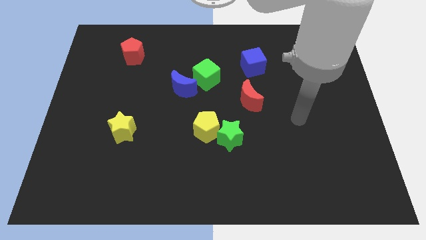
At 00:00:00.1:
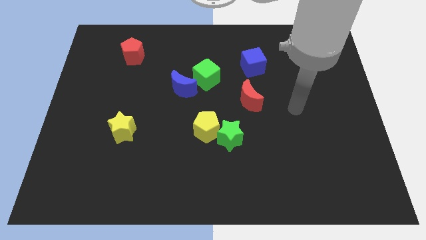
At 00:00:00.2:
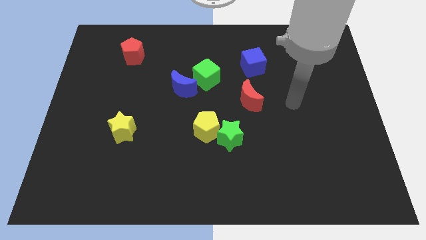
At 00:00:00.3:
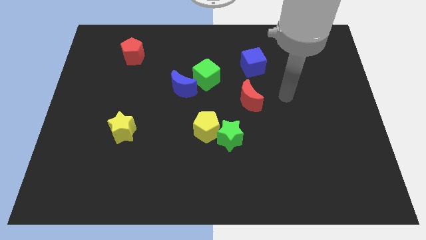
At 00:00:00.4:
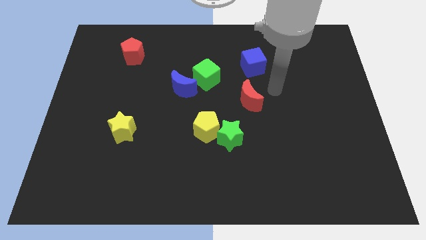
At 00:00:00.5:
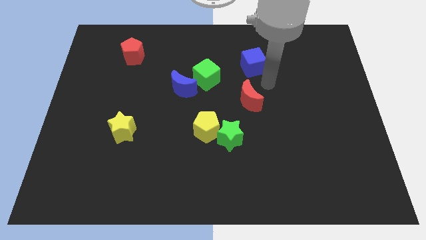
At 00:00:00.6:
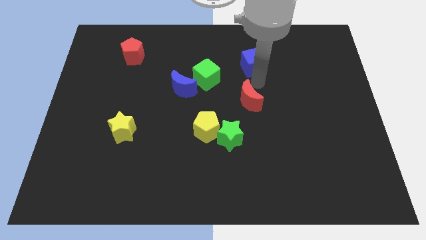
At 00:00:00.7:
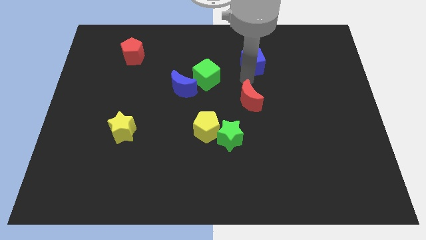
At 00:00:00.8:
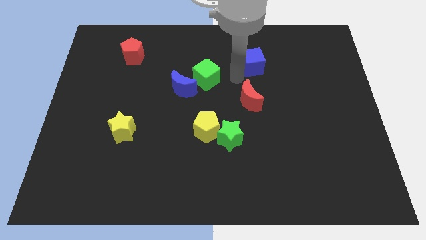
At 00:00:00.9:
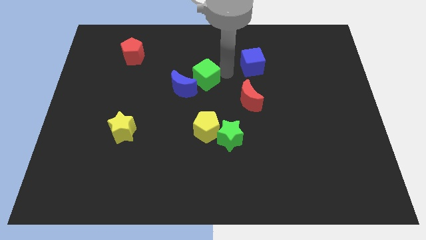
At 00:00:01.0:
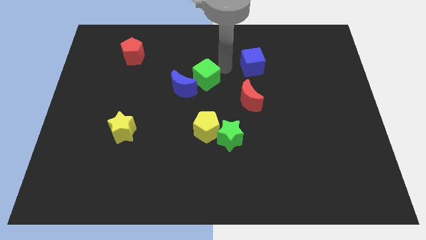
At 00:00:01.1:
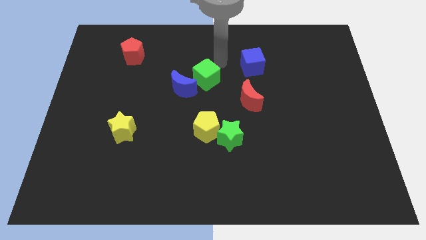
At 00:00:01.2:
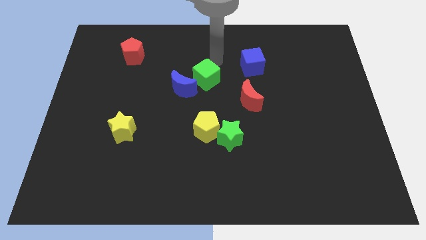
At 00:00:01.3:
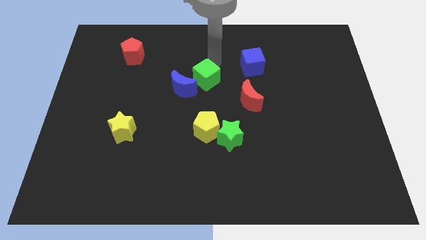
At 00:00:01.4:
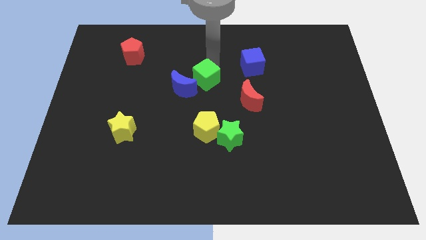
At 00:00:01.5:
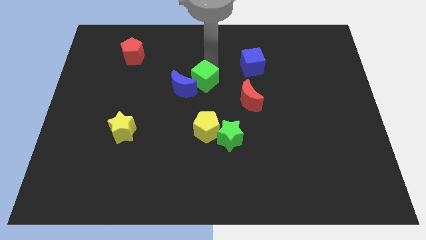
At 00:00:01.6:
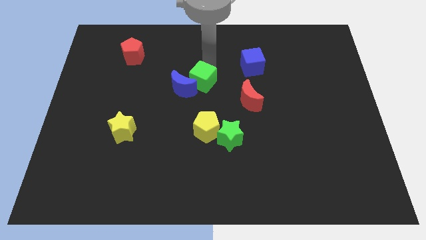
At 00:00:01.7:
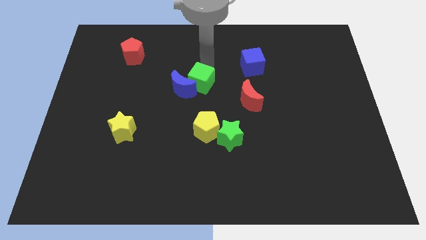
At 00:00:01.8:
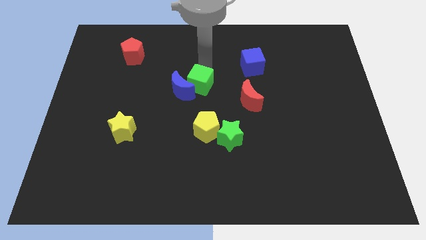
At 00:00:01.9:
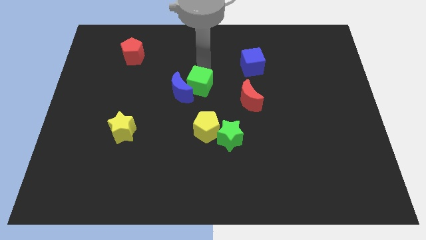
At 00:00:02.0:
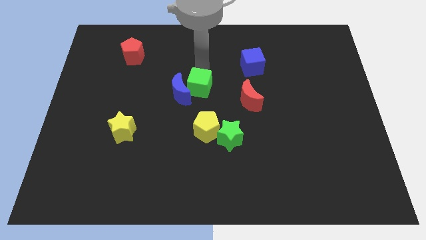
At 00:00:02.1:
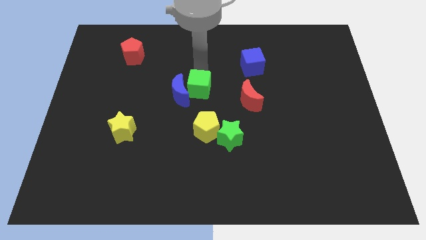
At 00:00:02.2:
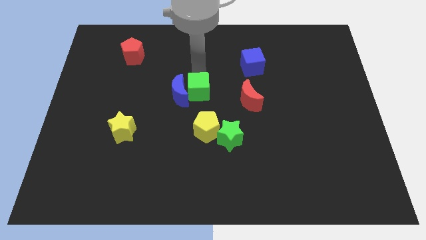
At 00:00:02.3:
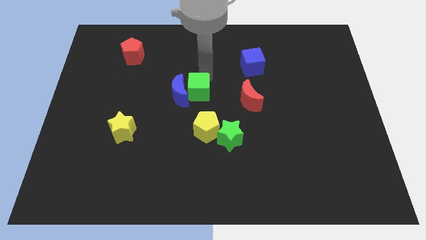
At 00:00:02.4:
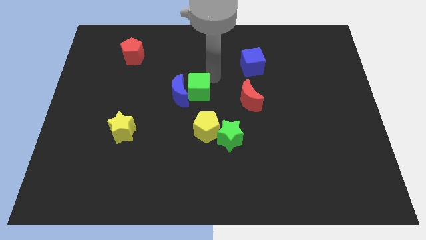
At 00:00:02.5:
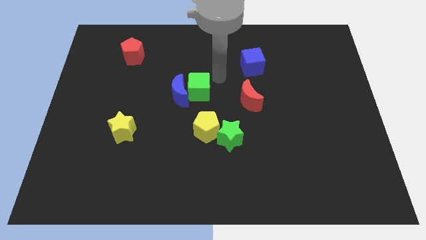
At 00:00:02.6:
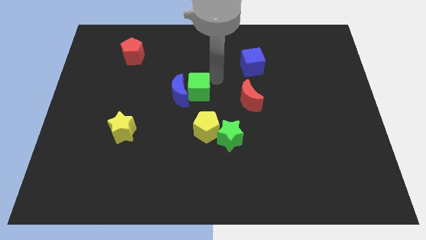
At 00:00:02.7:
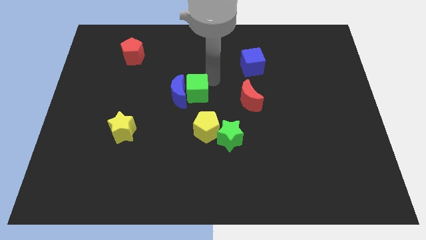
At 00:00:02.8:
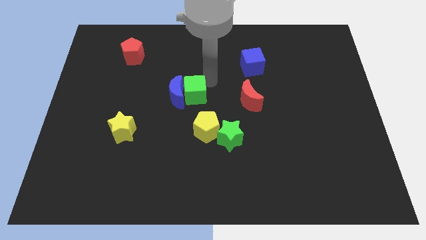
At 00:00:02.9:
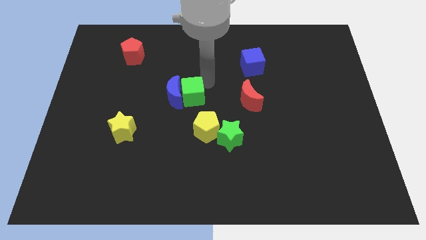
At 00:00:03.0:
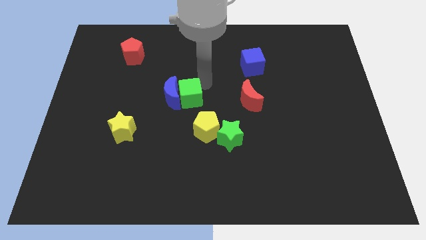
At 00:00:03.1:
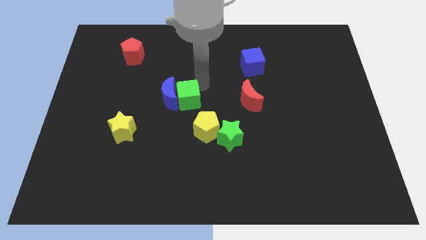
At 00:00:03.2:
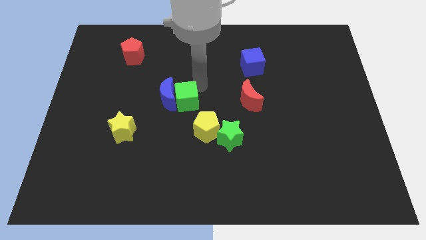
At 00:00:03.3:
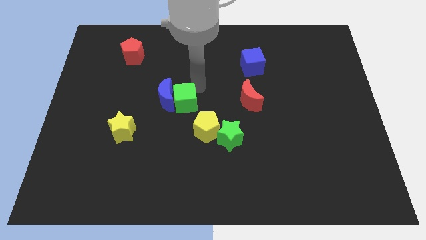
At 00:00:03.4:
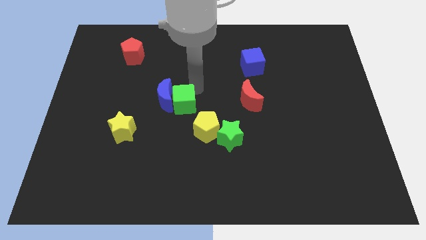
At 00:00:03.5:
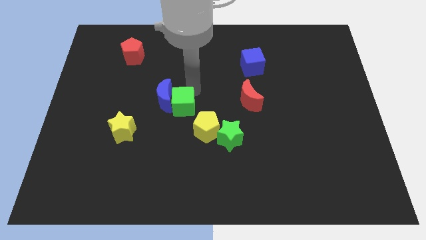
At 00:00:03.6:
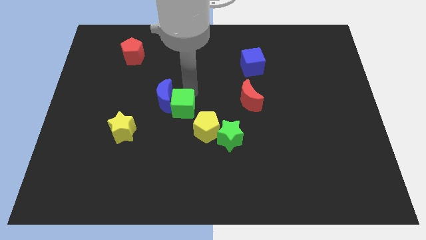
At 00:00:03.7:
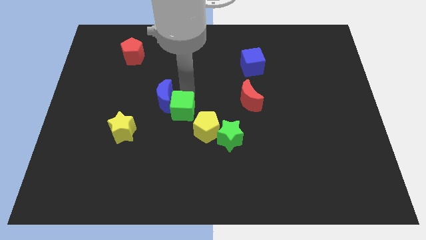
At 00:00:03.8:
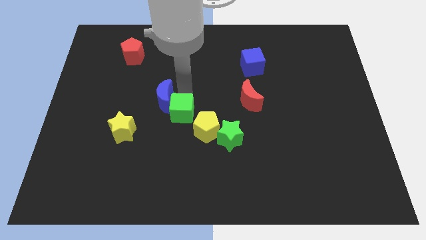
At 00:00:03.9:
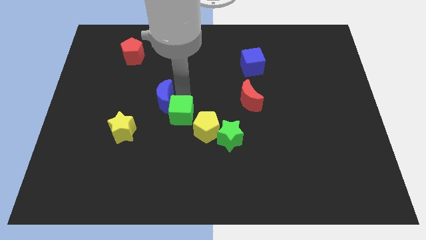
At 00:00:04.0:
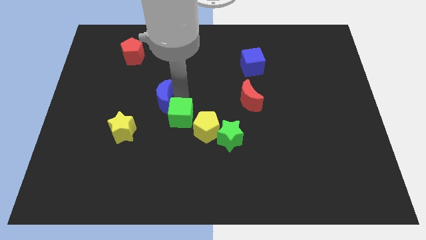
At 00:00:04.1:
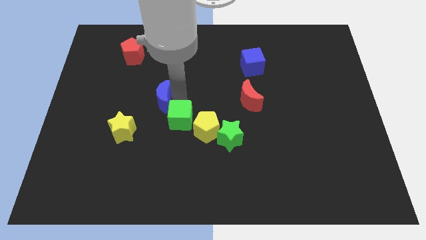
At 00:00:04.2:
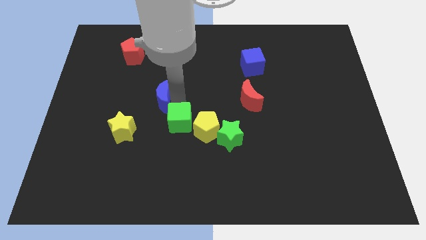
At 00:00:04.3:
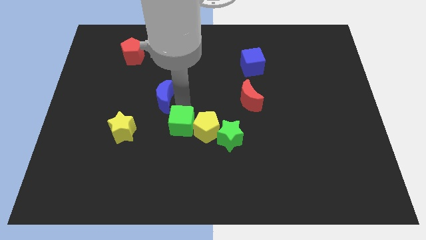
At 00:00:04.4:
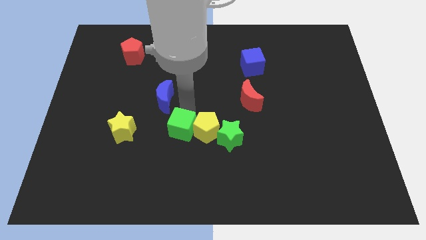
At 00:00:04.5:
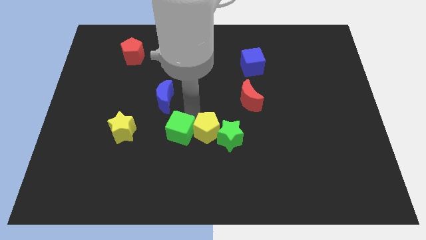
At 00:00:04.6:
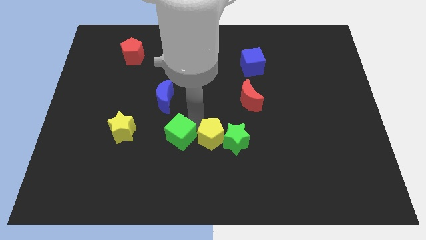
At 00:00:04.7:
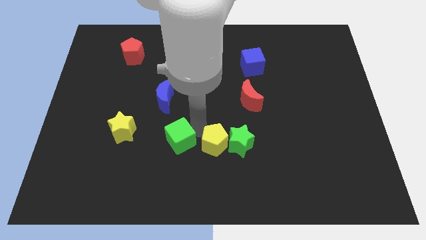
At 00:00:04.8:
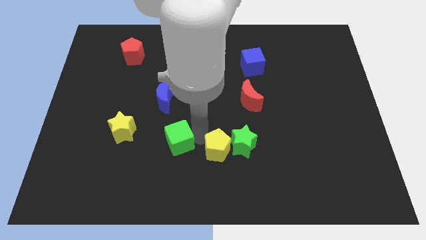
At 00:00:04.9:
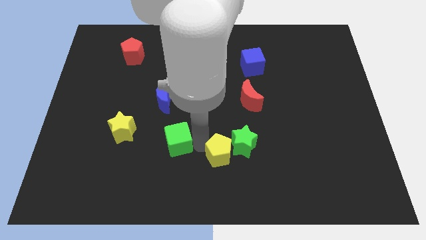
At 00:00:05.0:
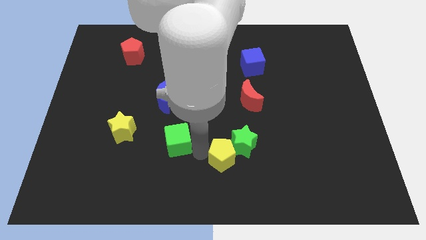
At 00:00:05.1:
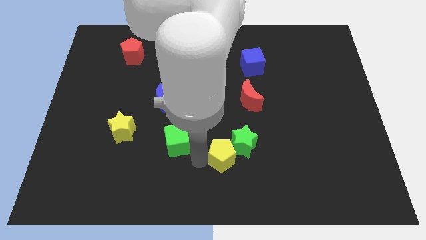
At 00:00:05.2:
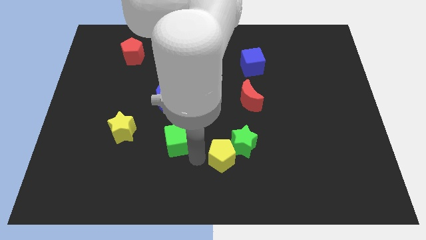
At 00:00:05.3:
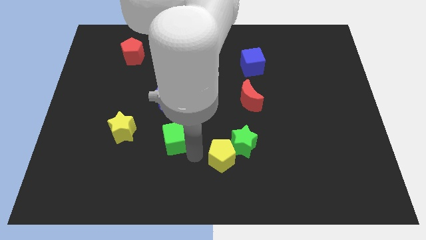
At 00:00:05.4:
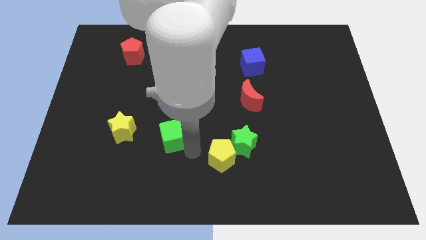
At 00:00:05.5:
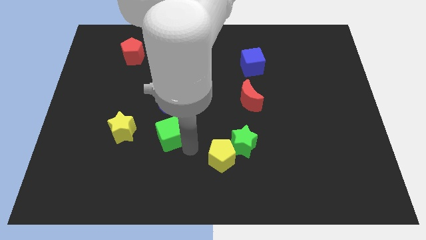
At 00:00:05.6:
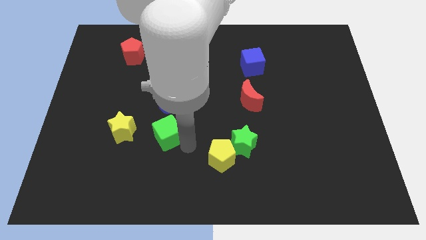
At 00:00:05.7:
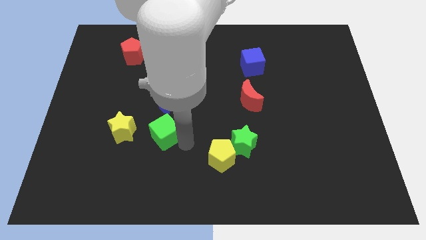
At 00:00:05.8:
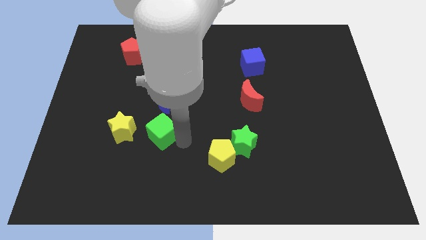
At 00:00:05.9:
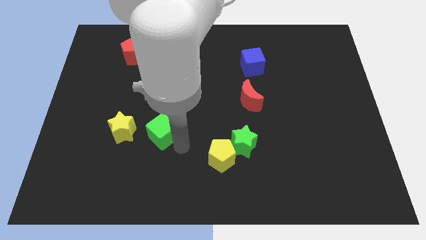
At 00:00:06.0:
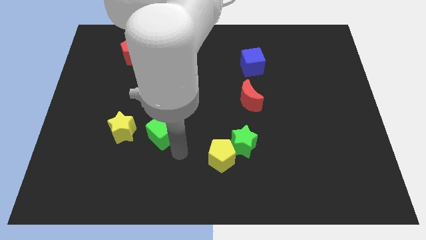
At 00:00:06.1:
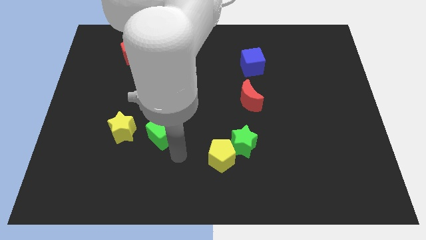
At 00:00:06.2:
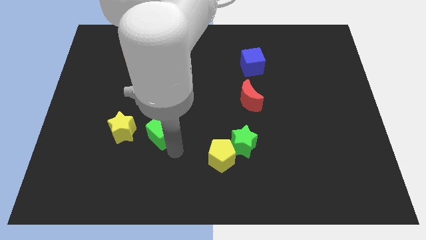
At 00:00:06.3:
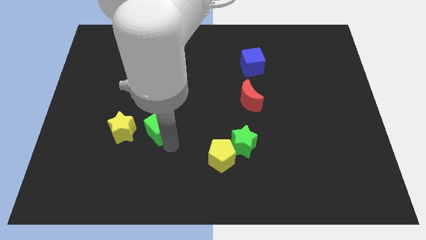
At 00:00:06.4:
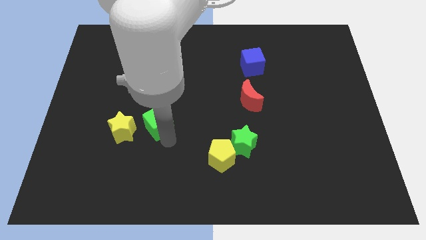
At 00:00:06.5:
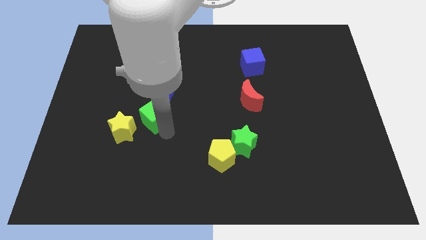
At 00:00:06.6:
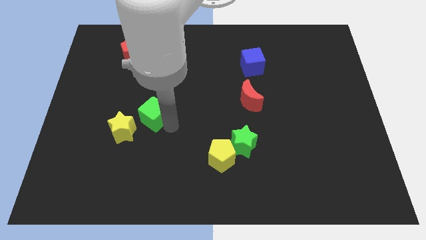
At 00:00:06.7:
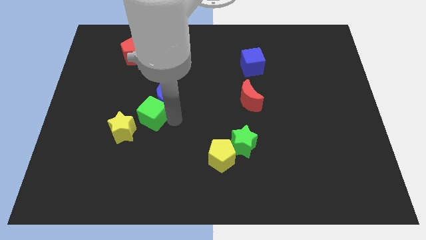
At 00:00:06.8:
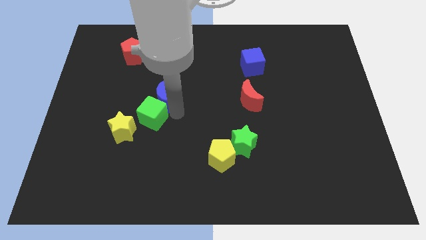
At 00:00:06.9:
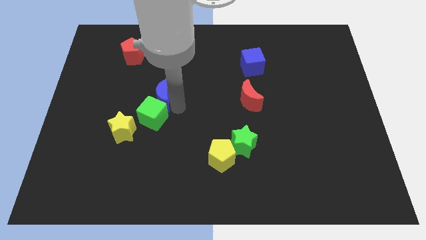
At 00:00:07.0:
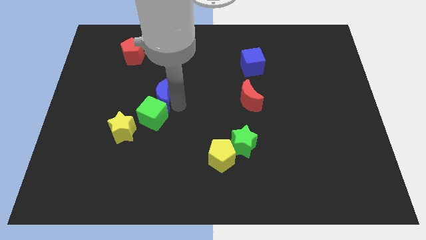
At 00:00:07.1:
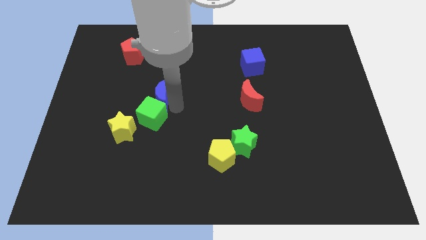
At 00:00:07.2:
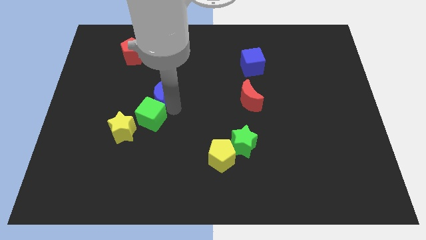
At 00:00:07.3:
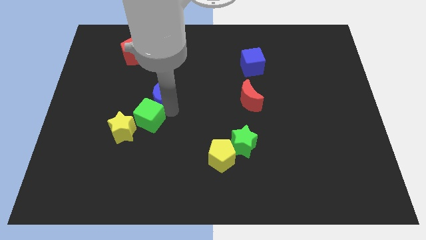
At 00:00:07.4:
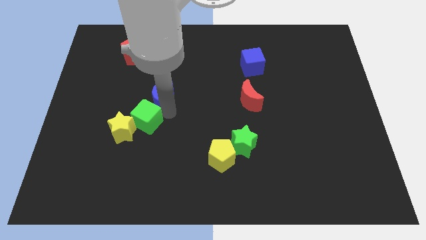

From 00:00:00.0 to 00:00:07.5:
slide the green cube to the yellow star

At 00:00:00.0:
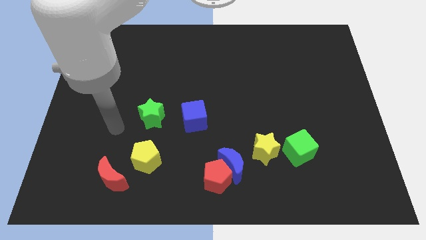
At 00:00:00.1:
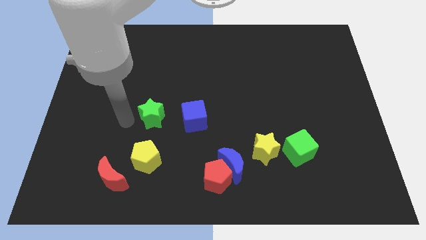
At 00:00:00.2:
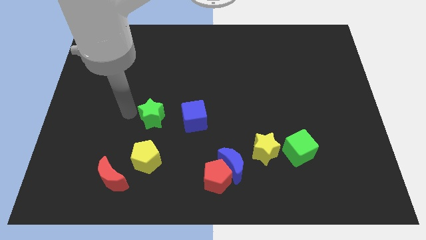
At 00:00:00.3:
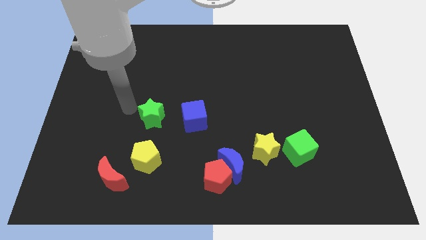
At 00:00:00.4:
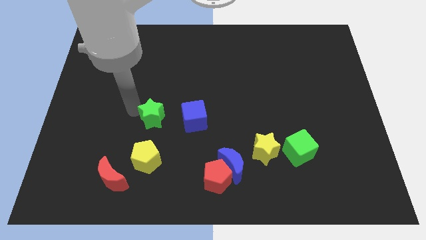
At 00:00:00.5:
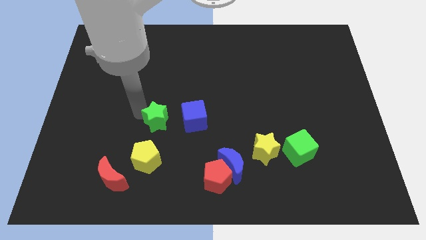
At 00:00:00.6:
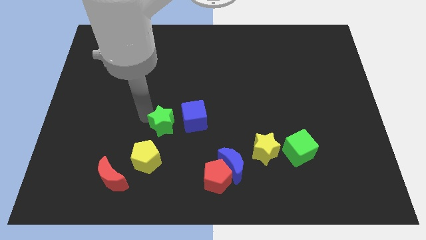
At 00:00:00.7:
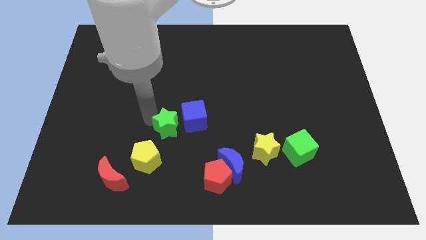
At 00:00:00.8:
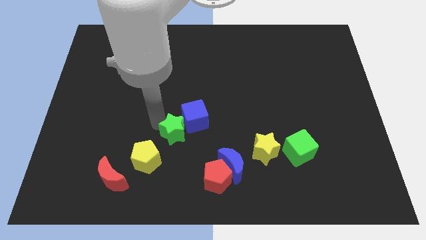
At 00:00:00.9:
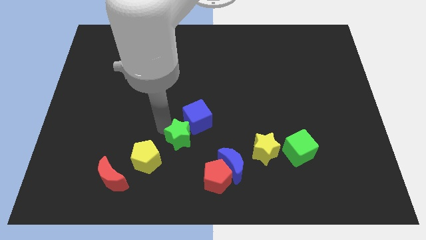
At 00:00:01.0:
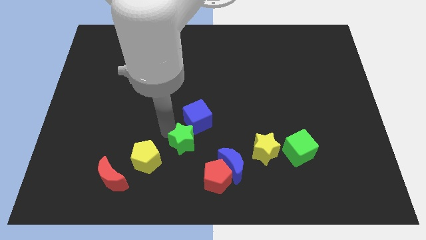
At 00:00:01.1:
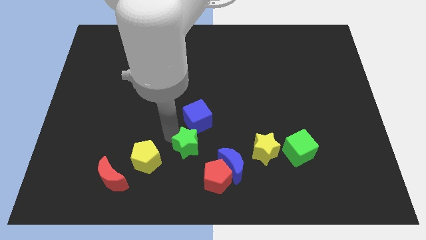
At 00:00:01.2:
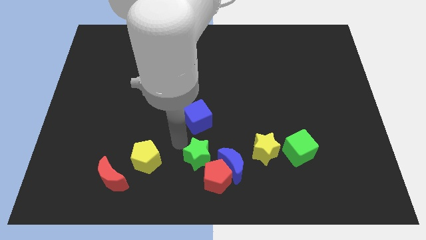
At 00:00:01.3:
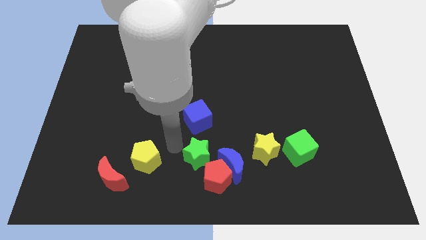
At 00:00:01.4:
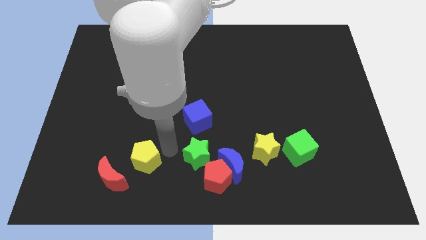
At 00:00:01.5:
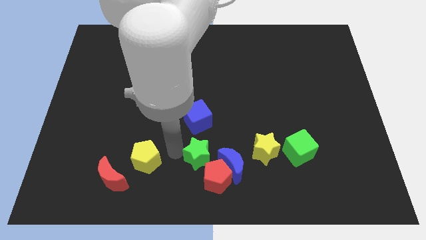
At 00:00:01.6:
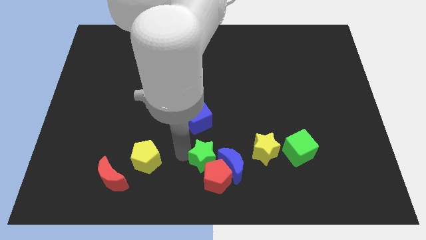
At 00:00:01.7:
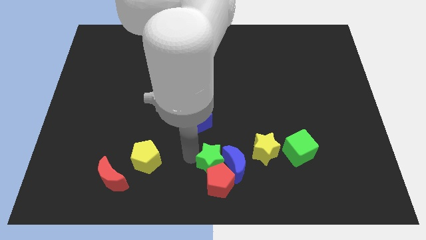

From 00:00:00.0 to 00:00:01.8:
slide the green star close to the blue moon
